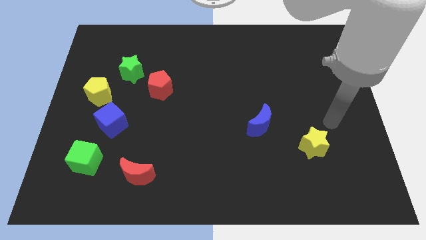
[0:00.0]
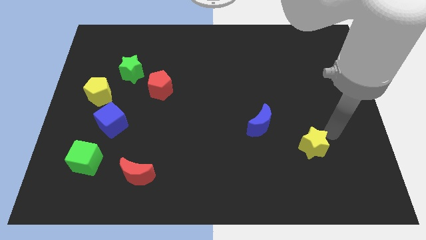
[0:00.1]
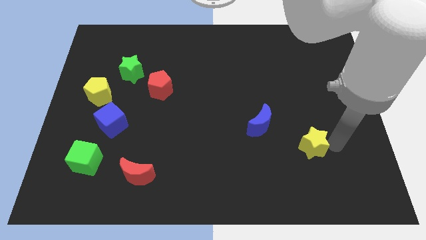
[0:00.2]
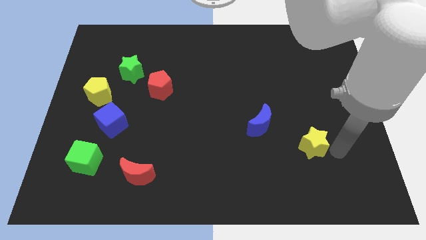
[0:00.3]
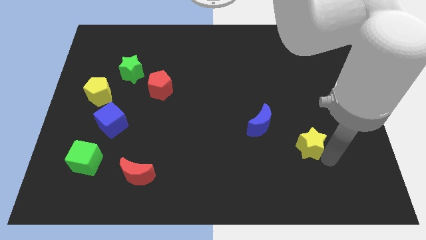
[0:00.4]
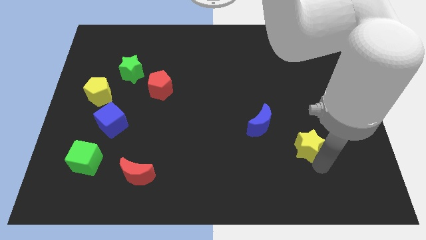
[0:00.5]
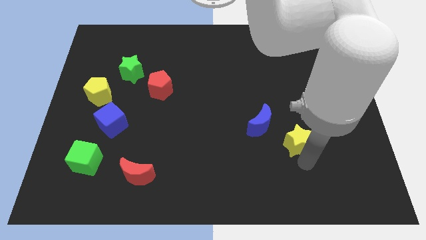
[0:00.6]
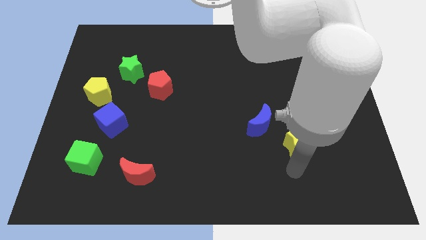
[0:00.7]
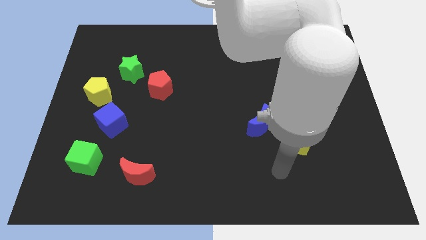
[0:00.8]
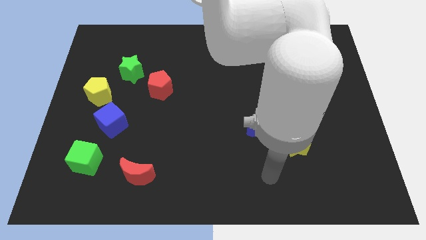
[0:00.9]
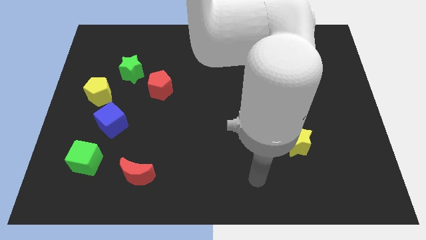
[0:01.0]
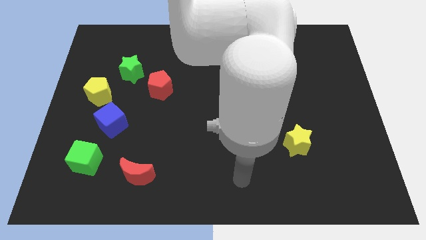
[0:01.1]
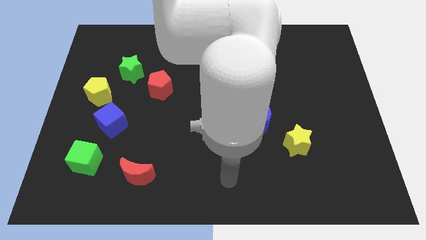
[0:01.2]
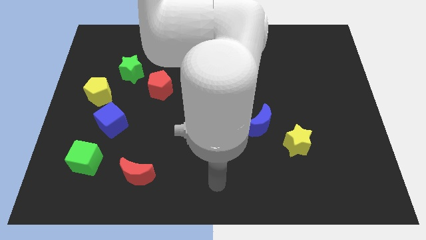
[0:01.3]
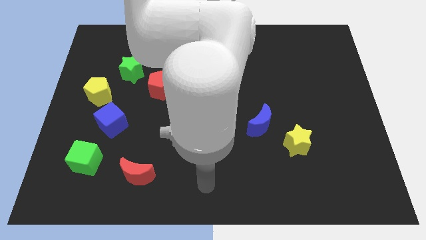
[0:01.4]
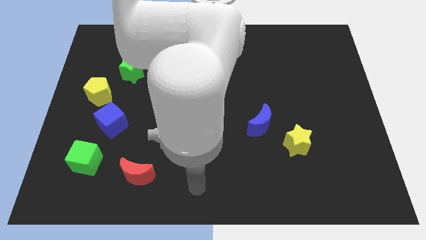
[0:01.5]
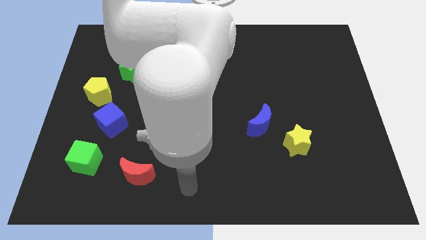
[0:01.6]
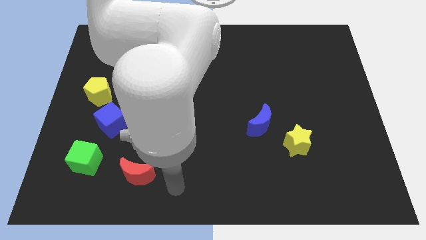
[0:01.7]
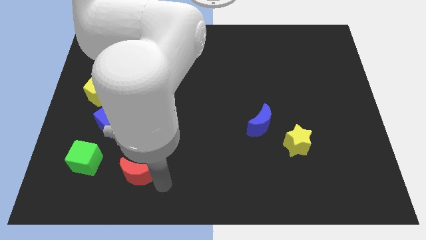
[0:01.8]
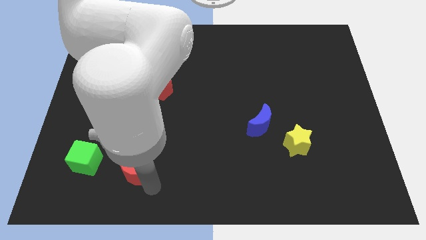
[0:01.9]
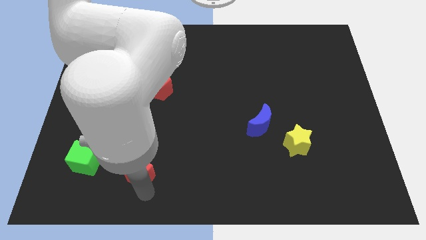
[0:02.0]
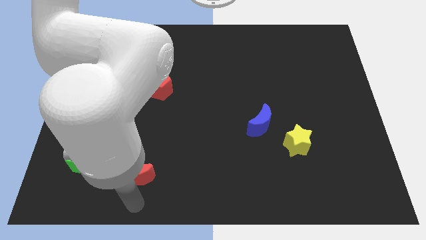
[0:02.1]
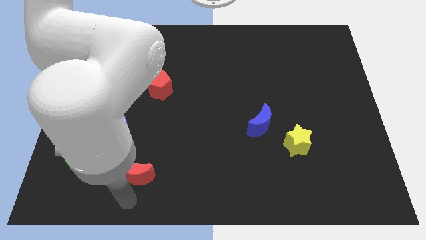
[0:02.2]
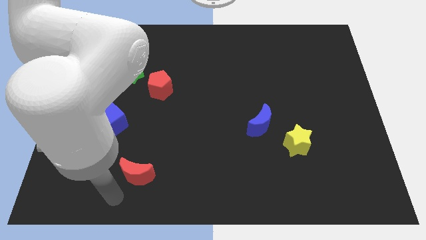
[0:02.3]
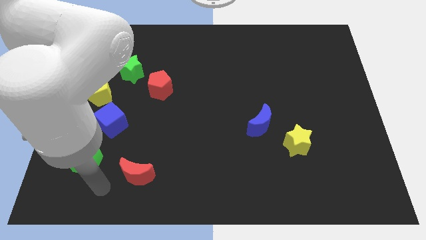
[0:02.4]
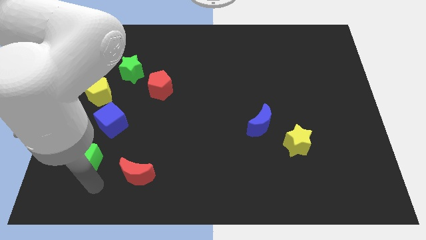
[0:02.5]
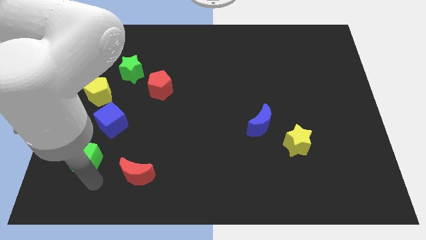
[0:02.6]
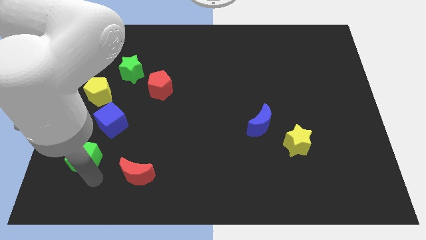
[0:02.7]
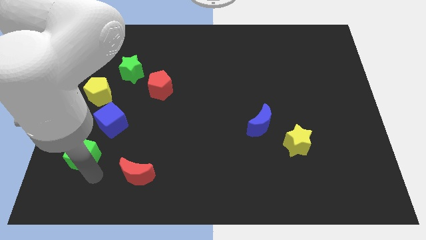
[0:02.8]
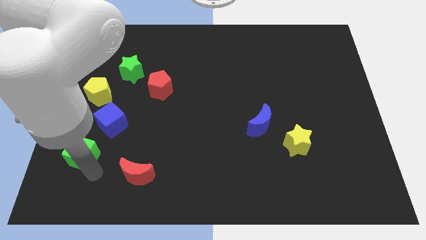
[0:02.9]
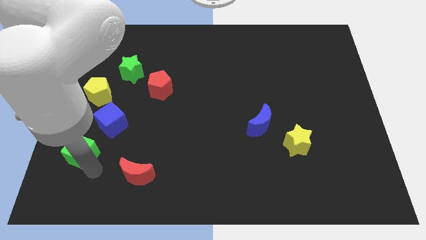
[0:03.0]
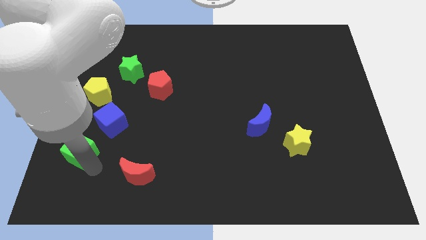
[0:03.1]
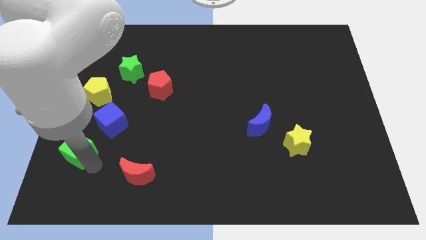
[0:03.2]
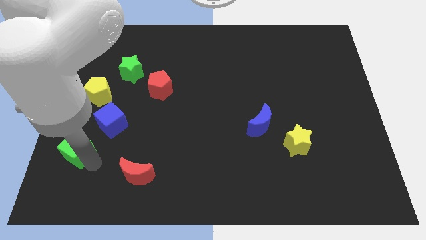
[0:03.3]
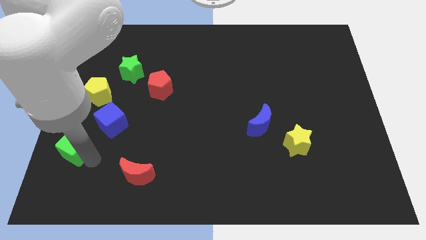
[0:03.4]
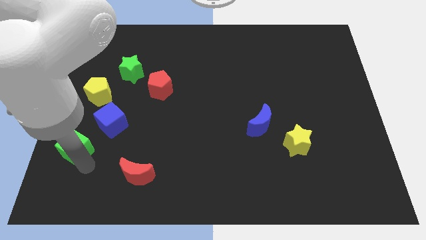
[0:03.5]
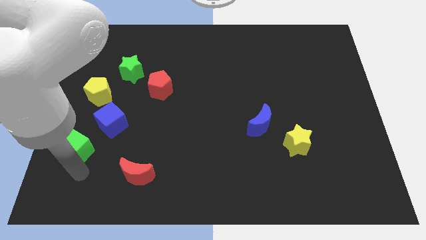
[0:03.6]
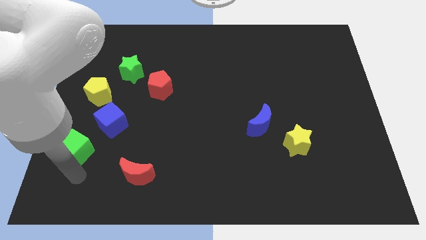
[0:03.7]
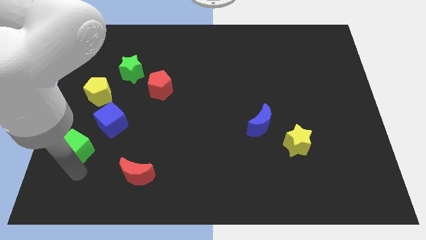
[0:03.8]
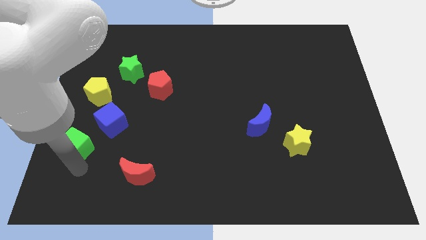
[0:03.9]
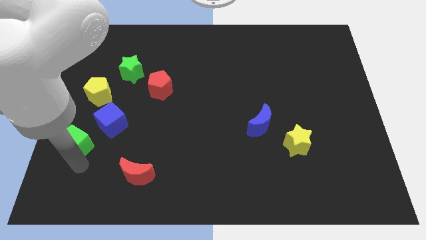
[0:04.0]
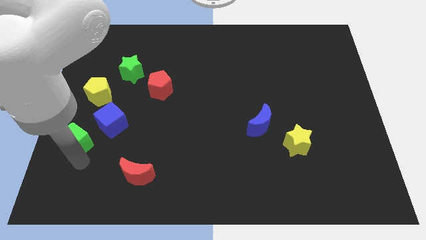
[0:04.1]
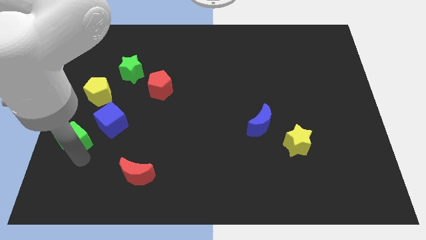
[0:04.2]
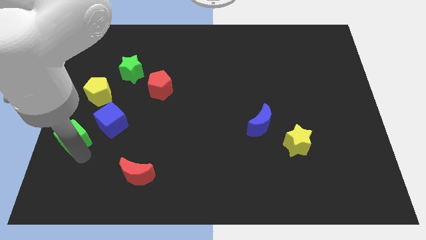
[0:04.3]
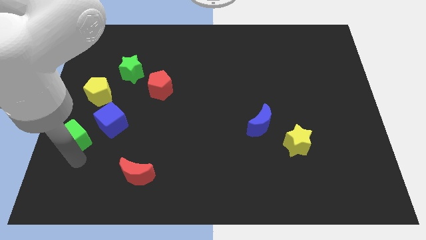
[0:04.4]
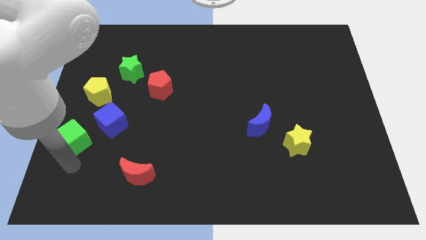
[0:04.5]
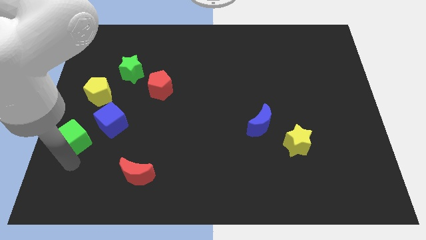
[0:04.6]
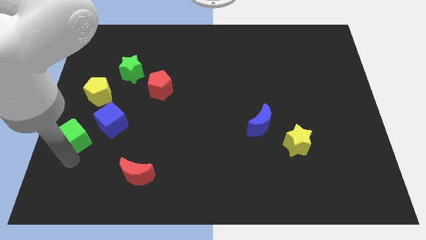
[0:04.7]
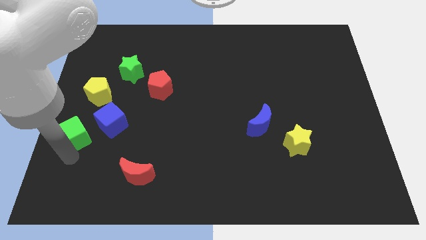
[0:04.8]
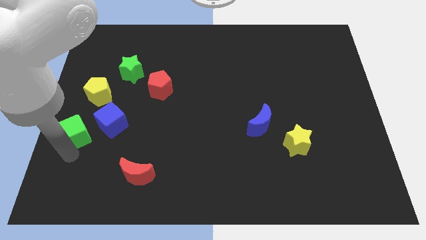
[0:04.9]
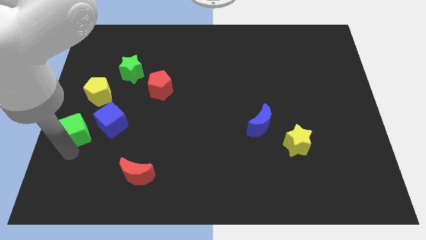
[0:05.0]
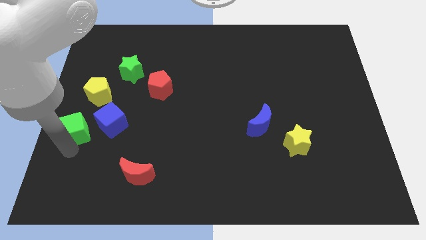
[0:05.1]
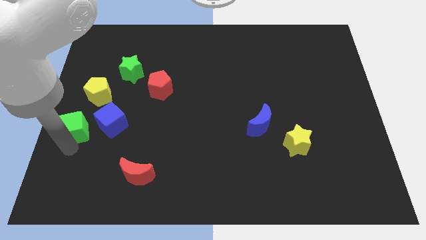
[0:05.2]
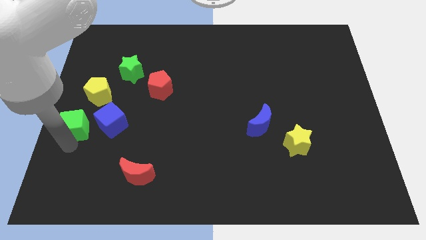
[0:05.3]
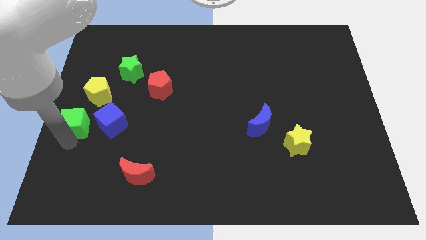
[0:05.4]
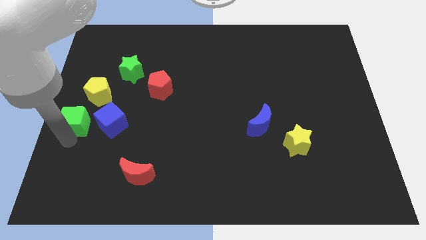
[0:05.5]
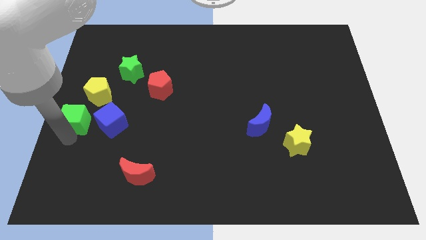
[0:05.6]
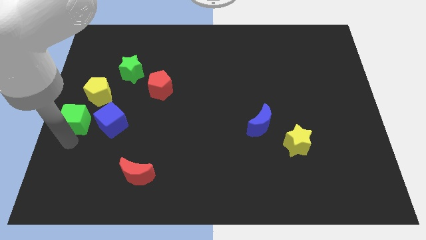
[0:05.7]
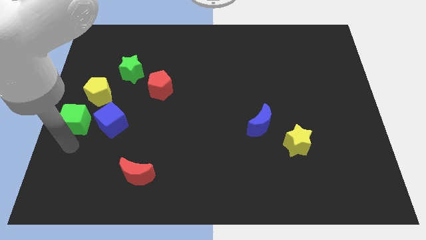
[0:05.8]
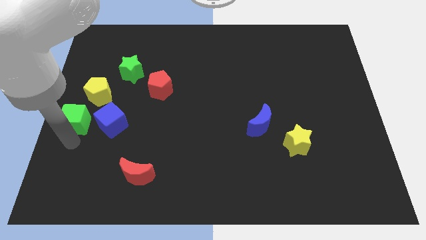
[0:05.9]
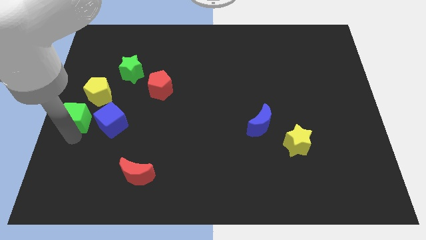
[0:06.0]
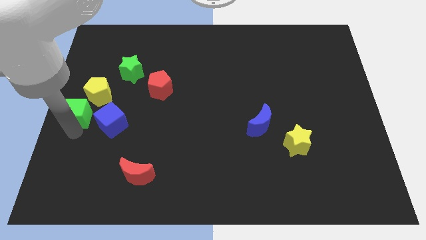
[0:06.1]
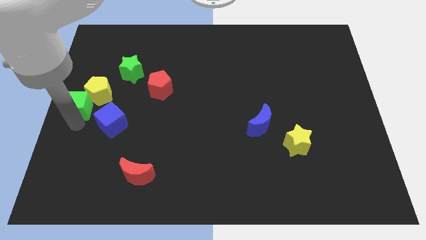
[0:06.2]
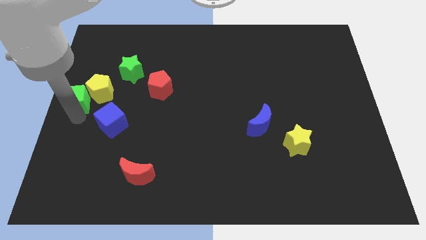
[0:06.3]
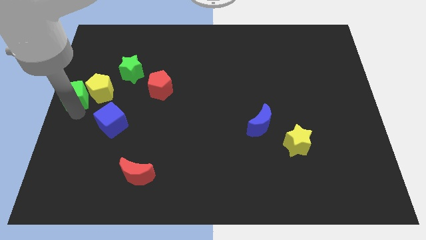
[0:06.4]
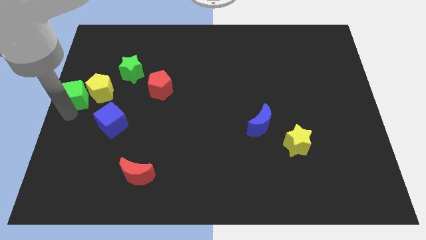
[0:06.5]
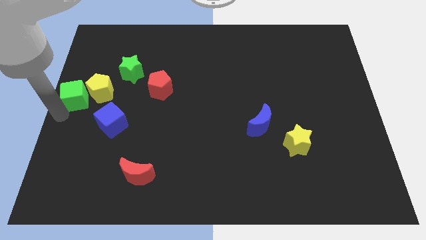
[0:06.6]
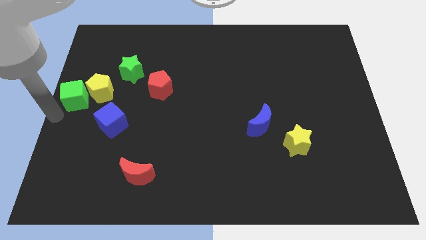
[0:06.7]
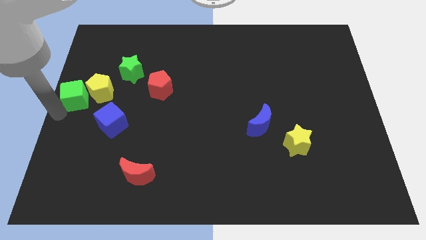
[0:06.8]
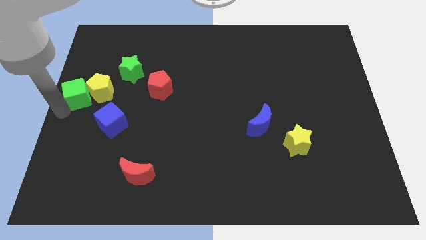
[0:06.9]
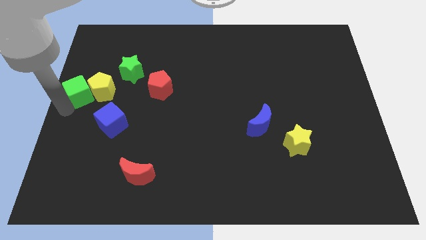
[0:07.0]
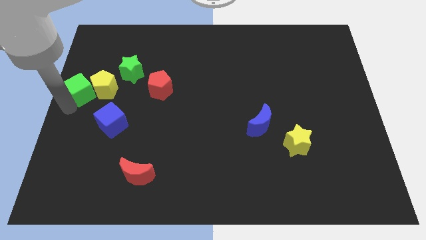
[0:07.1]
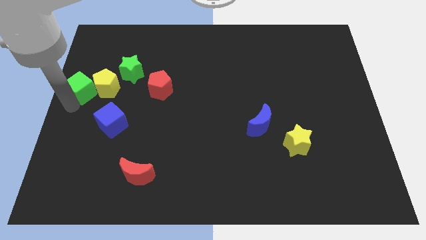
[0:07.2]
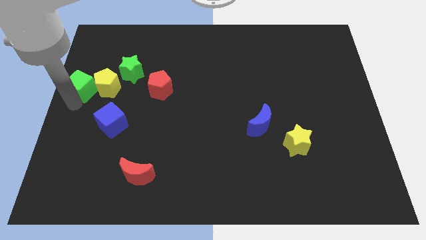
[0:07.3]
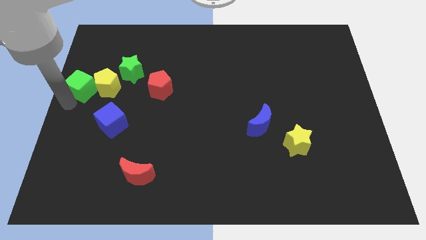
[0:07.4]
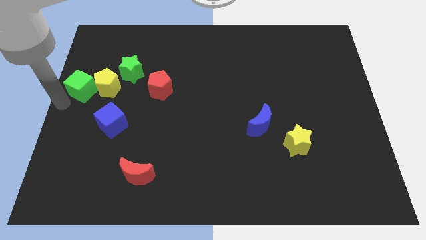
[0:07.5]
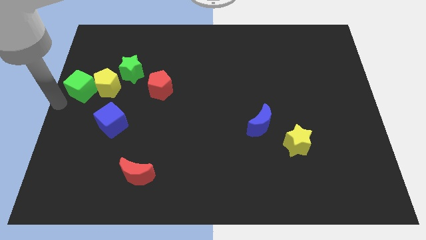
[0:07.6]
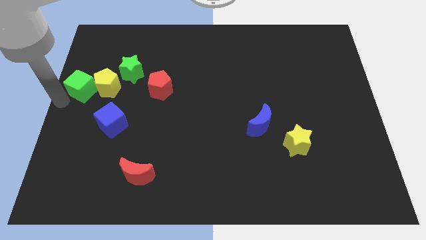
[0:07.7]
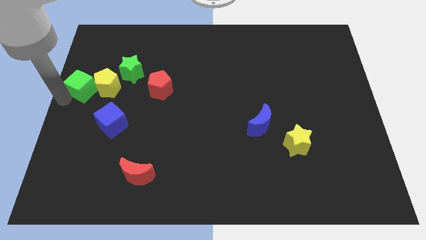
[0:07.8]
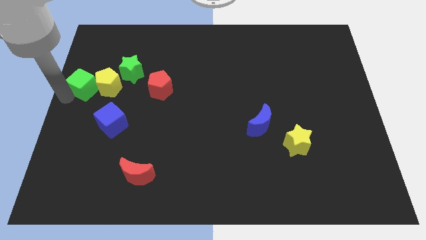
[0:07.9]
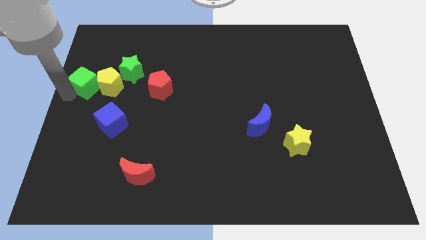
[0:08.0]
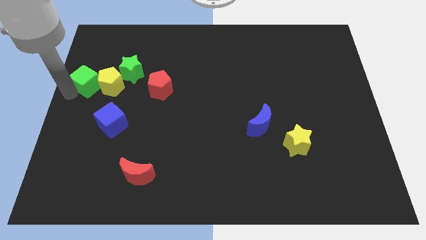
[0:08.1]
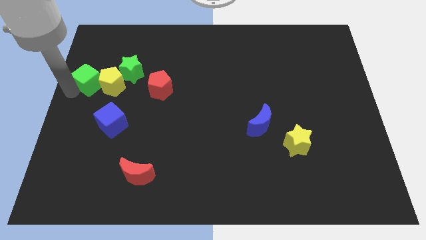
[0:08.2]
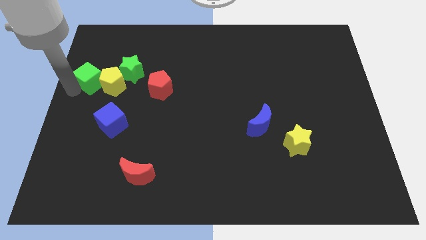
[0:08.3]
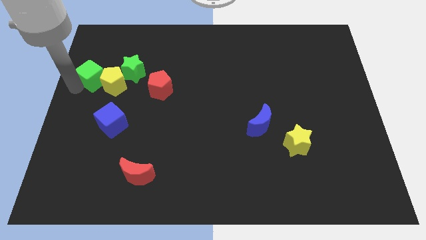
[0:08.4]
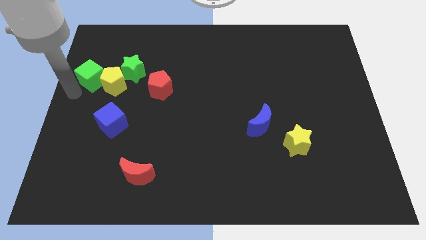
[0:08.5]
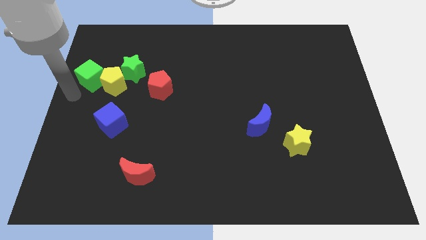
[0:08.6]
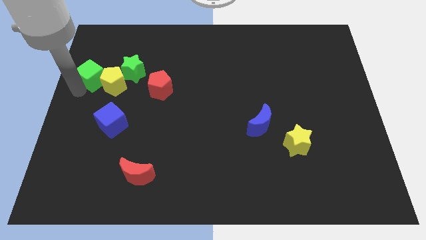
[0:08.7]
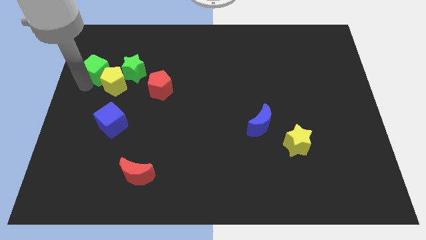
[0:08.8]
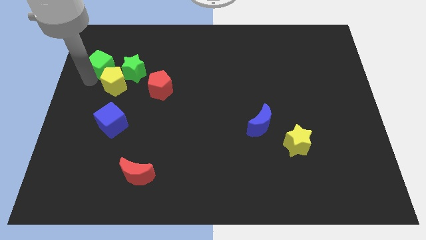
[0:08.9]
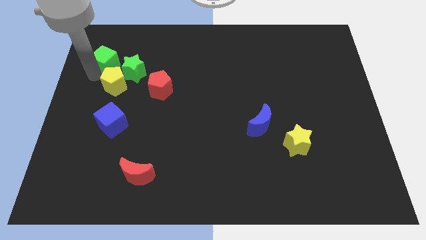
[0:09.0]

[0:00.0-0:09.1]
put the green cube to the top left side of the green star
